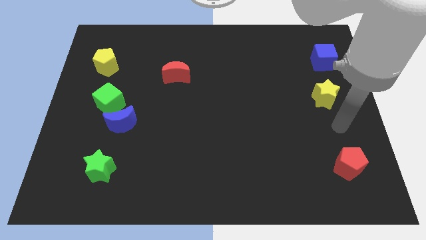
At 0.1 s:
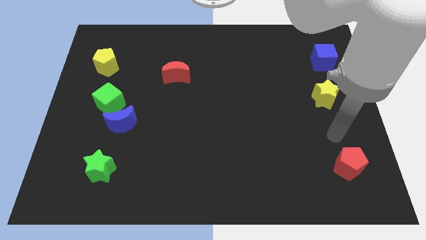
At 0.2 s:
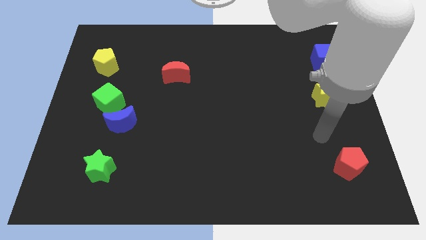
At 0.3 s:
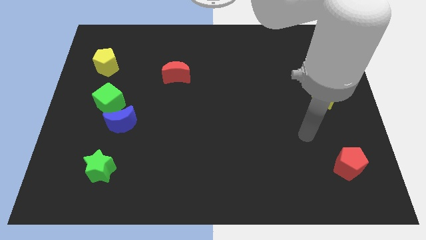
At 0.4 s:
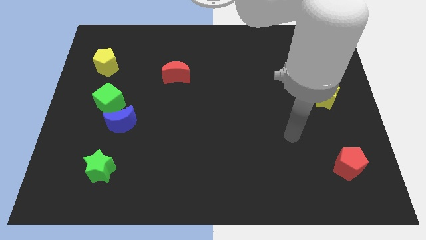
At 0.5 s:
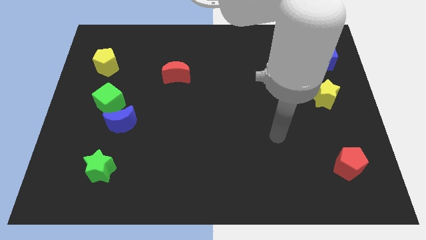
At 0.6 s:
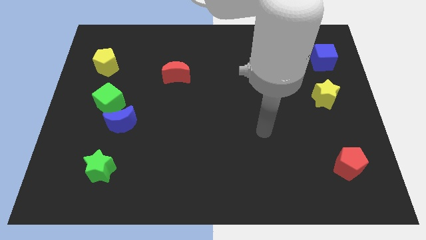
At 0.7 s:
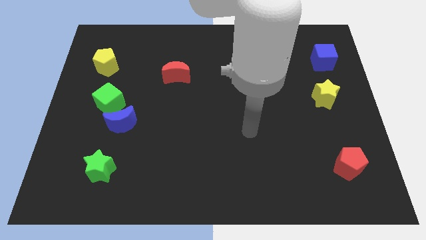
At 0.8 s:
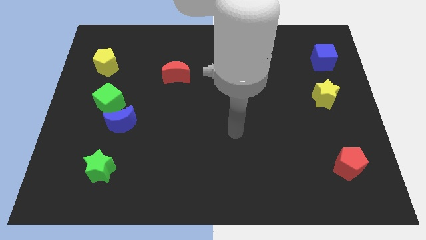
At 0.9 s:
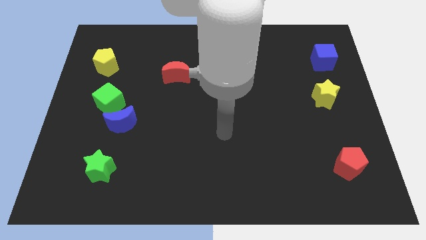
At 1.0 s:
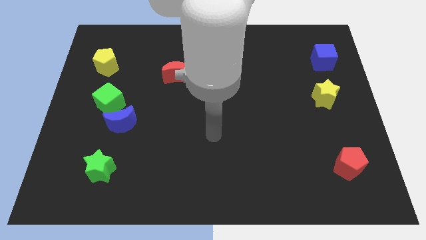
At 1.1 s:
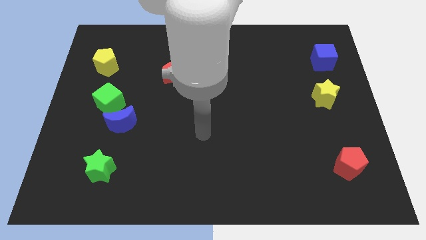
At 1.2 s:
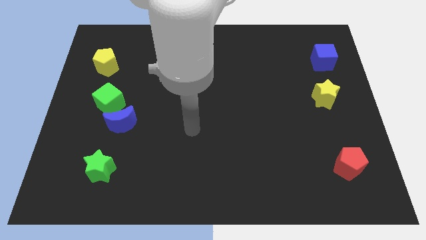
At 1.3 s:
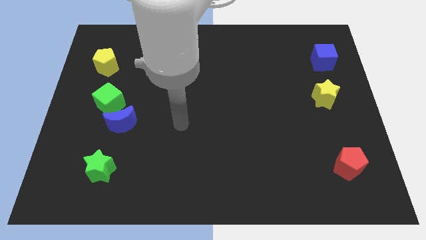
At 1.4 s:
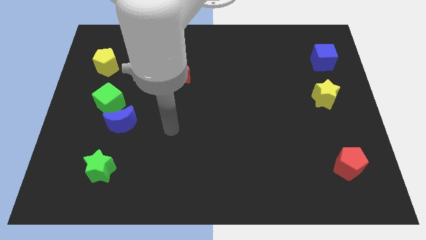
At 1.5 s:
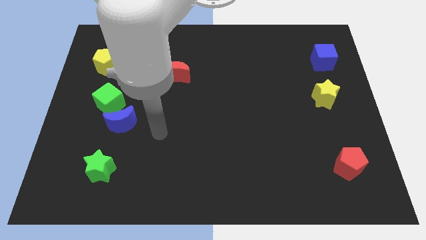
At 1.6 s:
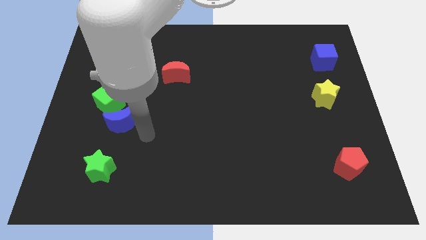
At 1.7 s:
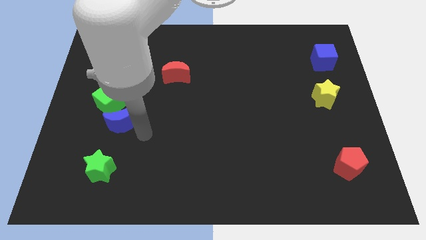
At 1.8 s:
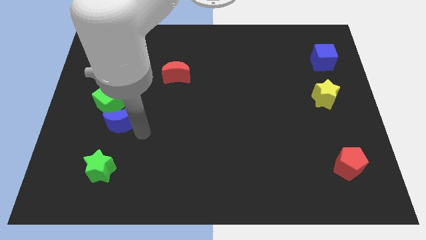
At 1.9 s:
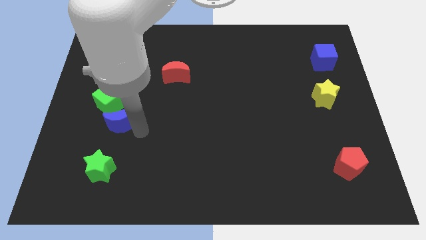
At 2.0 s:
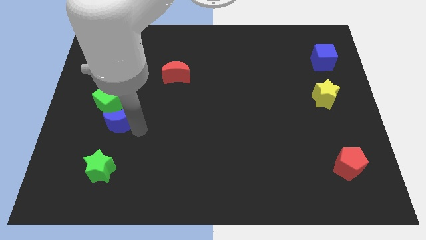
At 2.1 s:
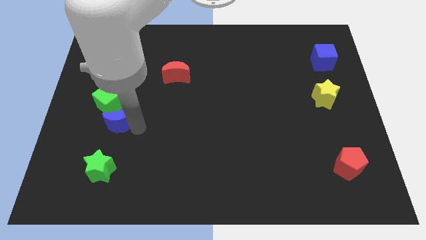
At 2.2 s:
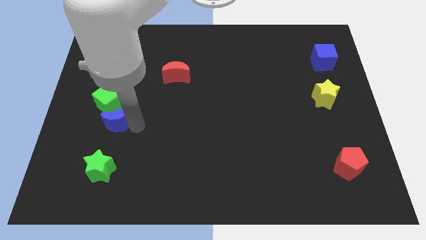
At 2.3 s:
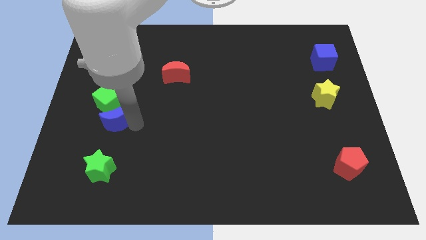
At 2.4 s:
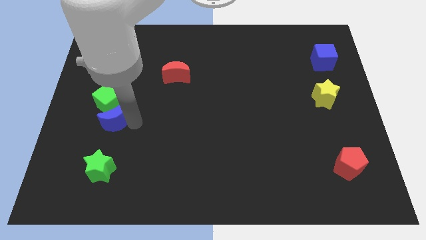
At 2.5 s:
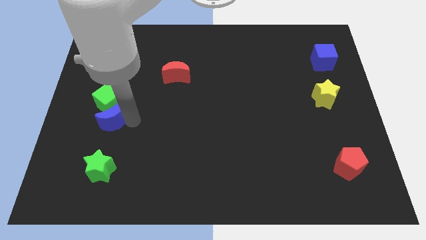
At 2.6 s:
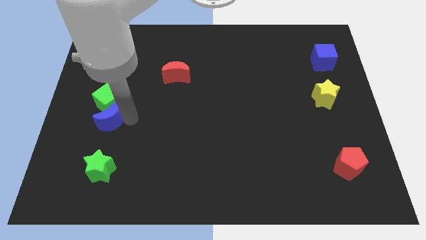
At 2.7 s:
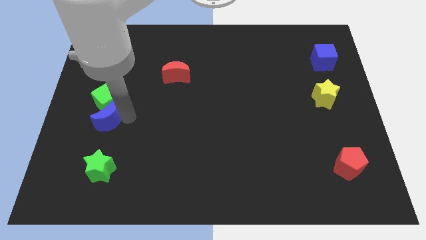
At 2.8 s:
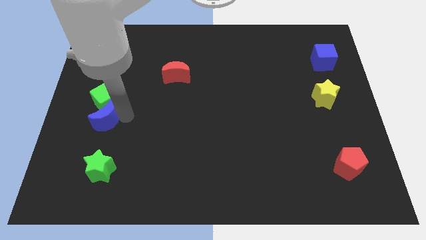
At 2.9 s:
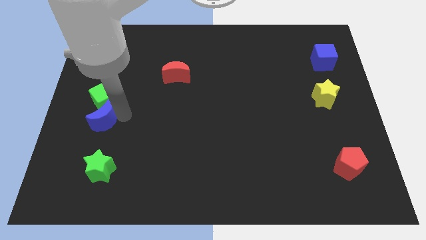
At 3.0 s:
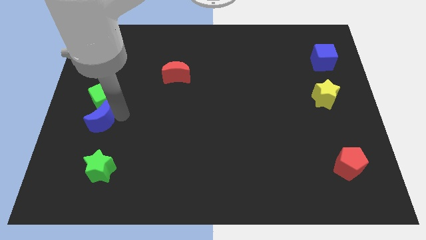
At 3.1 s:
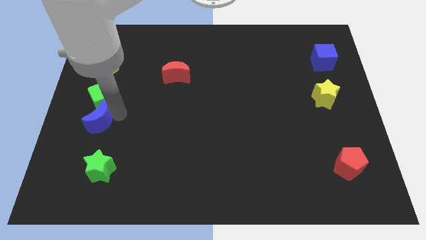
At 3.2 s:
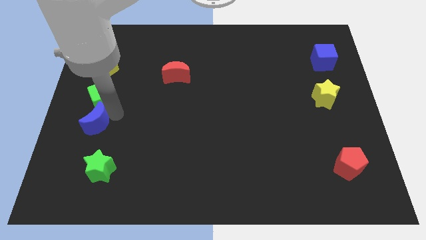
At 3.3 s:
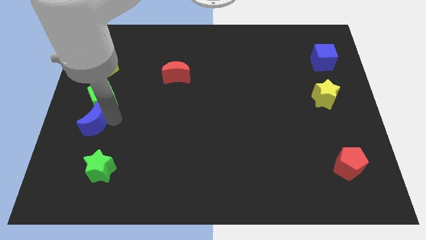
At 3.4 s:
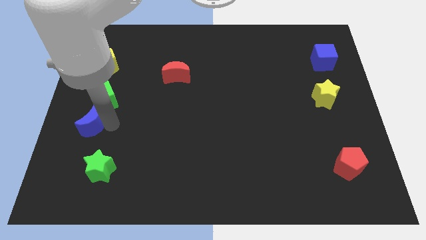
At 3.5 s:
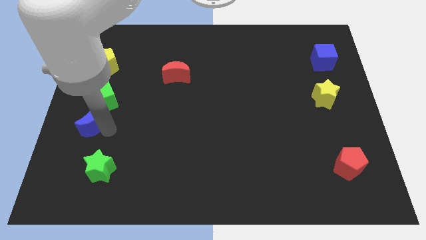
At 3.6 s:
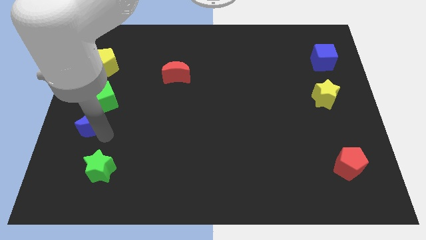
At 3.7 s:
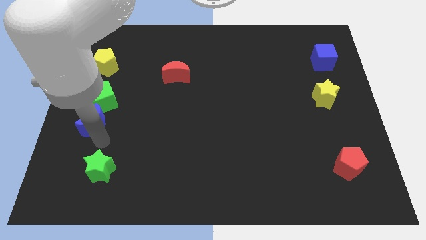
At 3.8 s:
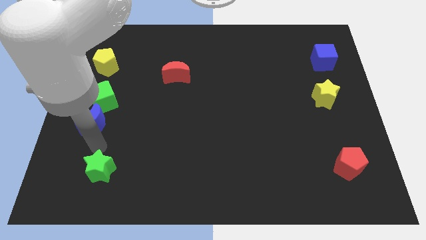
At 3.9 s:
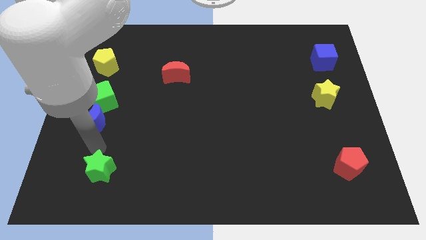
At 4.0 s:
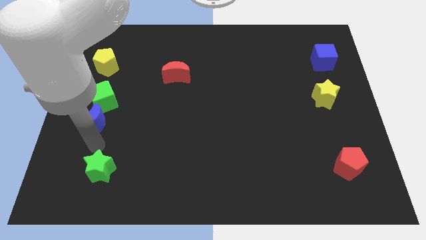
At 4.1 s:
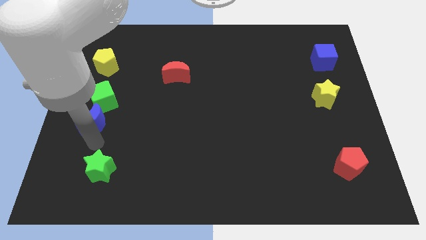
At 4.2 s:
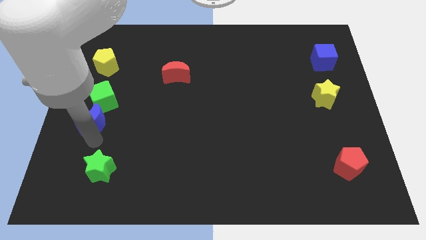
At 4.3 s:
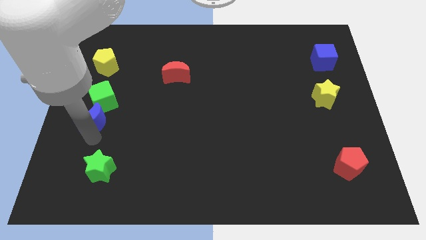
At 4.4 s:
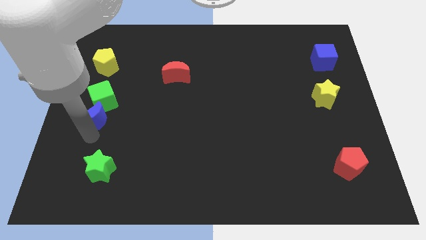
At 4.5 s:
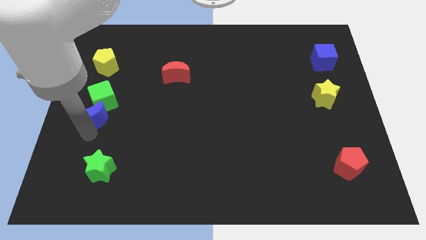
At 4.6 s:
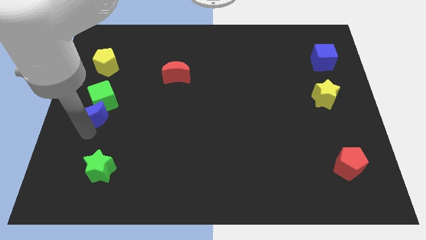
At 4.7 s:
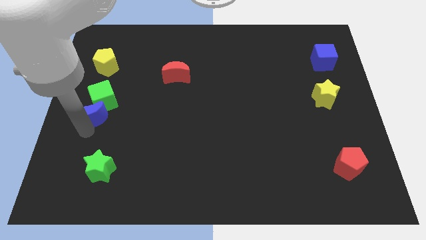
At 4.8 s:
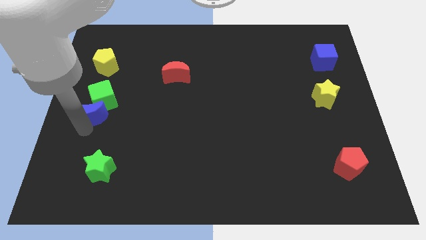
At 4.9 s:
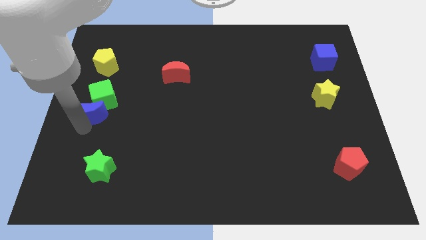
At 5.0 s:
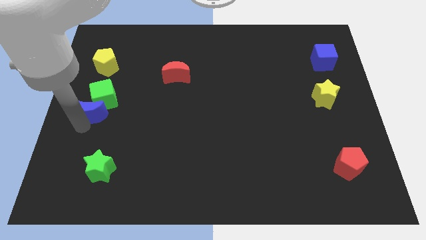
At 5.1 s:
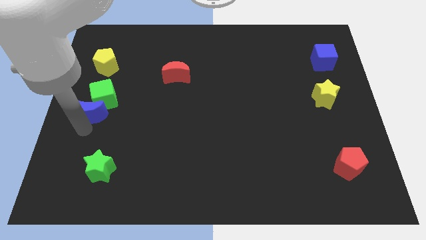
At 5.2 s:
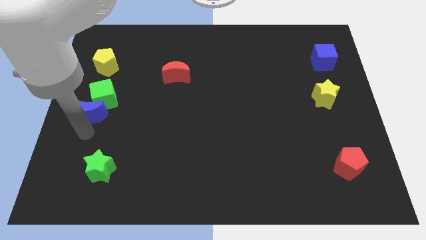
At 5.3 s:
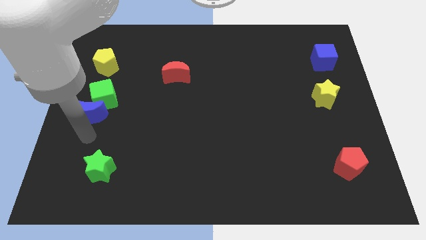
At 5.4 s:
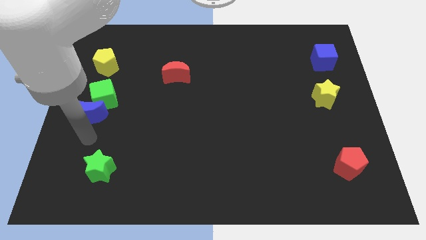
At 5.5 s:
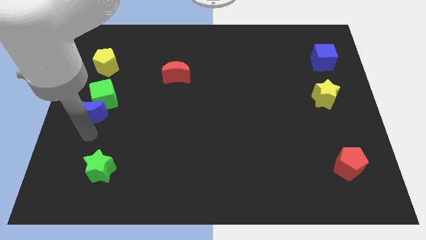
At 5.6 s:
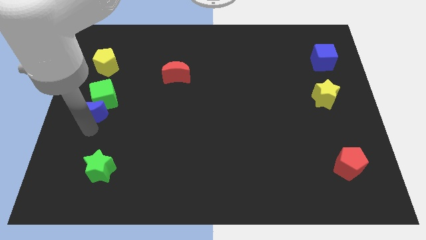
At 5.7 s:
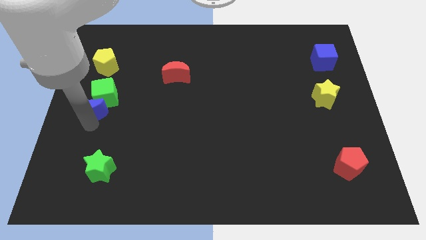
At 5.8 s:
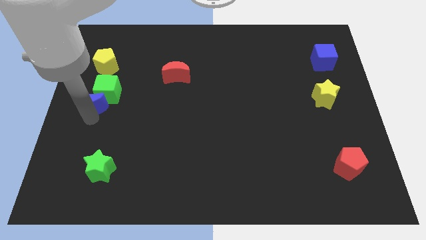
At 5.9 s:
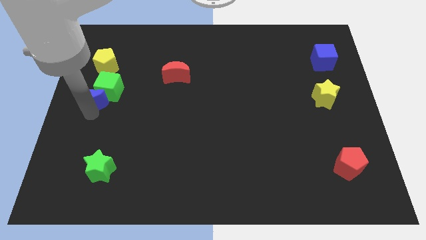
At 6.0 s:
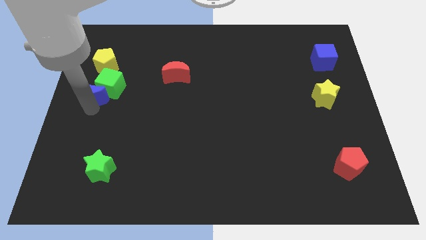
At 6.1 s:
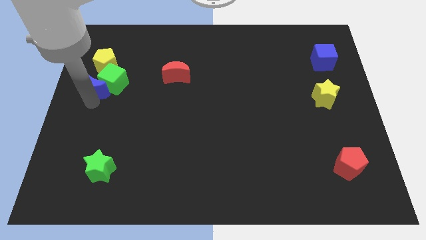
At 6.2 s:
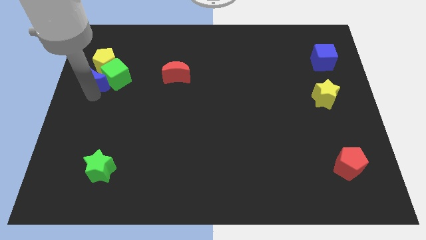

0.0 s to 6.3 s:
slide the blue moon close to the yellow pentagon
